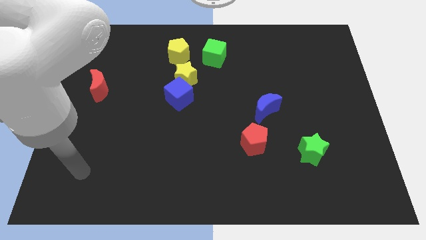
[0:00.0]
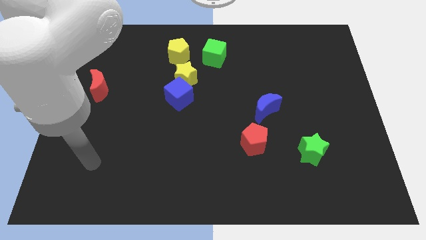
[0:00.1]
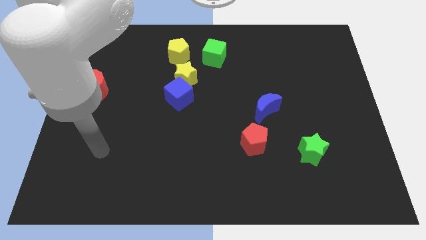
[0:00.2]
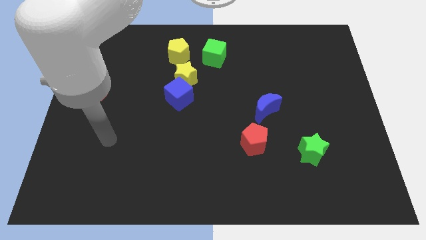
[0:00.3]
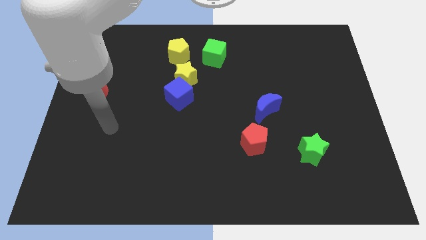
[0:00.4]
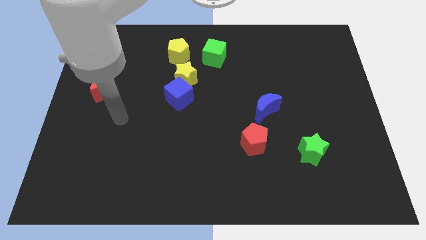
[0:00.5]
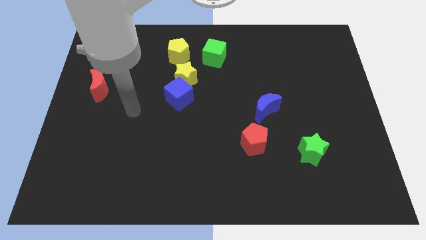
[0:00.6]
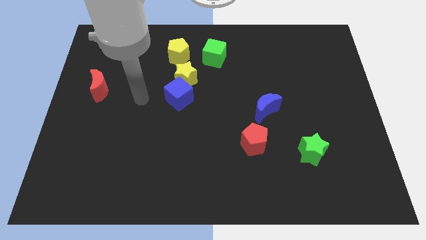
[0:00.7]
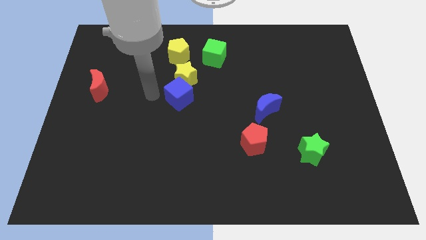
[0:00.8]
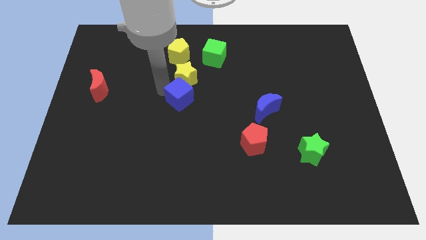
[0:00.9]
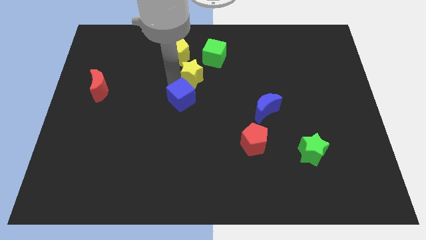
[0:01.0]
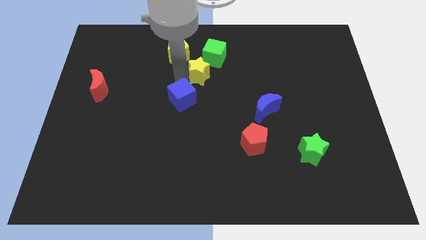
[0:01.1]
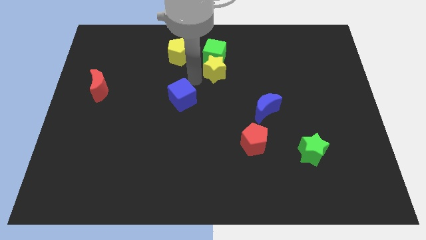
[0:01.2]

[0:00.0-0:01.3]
pull the blue cube apart from the yellow star

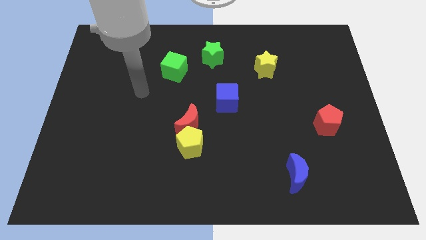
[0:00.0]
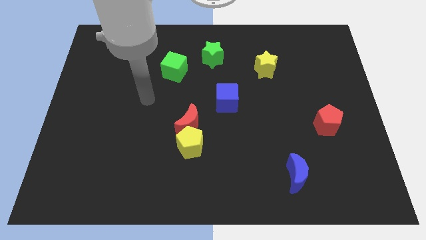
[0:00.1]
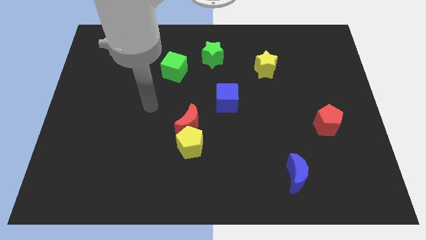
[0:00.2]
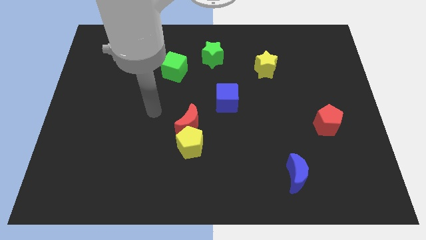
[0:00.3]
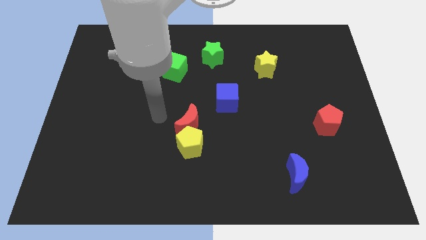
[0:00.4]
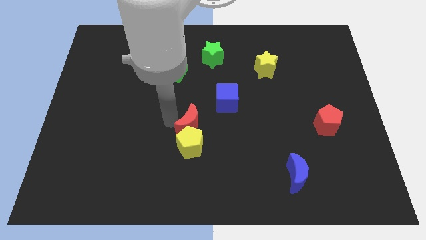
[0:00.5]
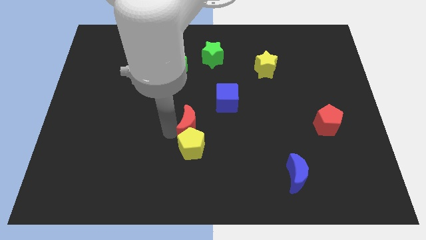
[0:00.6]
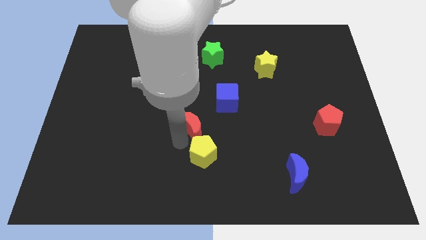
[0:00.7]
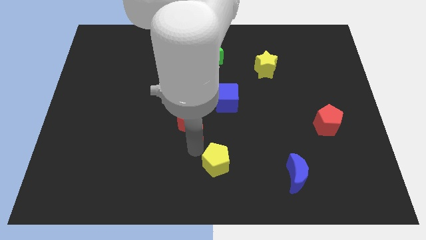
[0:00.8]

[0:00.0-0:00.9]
separate the red moon from the yellow pentagon

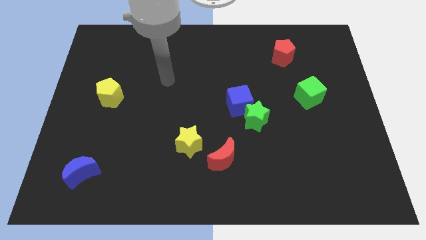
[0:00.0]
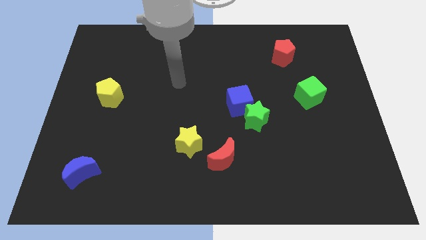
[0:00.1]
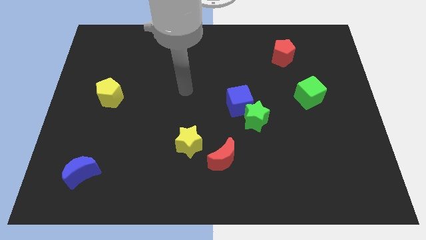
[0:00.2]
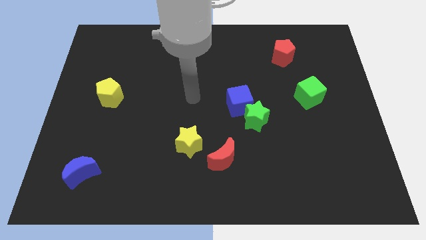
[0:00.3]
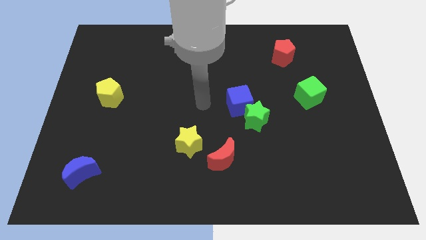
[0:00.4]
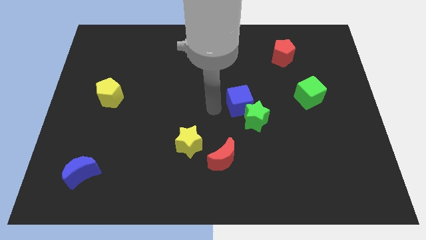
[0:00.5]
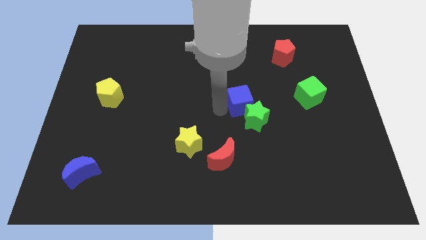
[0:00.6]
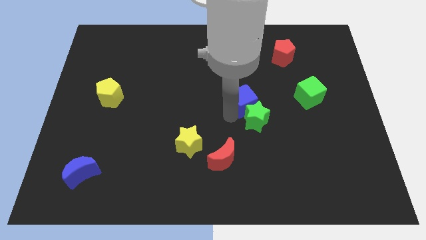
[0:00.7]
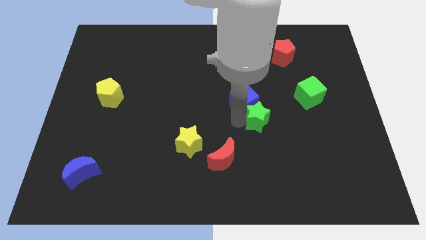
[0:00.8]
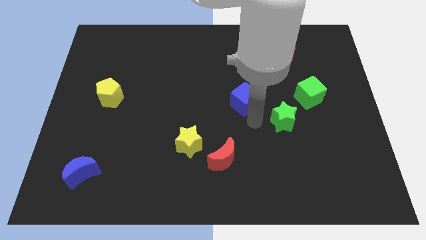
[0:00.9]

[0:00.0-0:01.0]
move the blue cube away from the green star

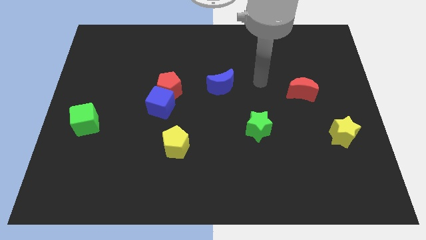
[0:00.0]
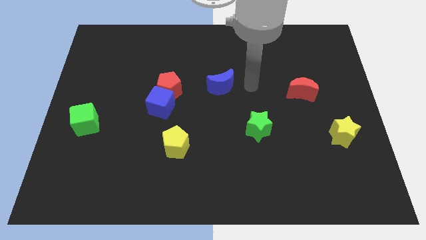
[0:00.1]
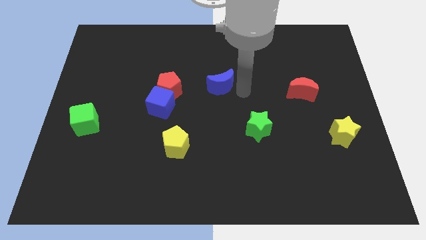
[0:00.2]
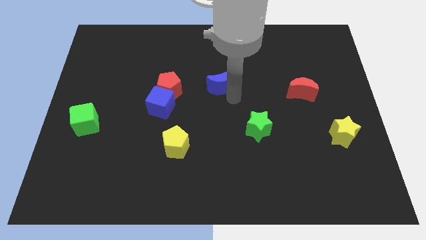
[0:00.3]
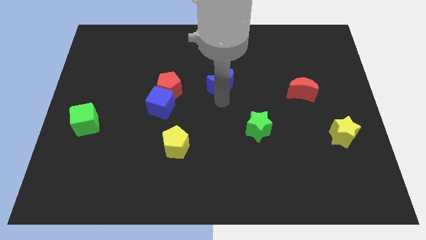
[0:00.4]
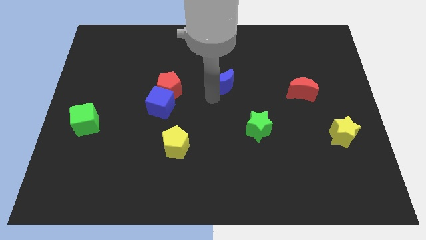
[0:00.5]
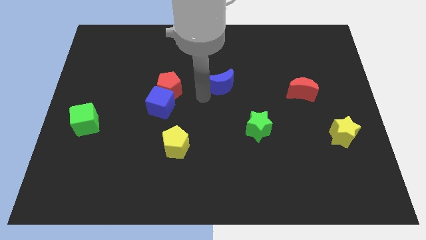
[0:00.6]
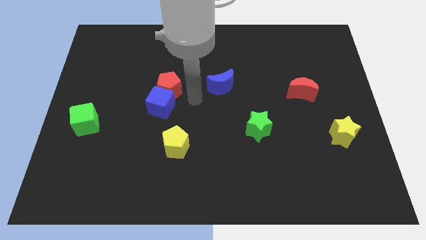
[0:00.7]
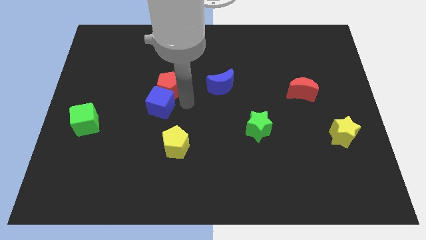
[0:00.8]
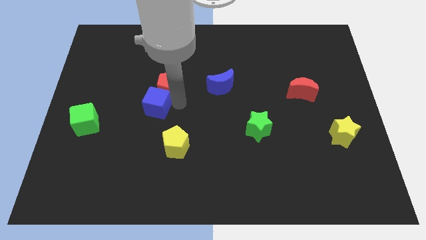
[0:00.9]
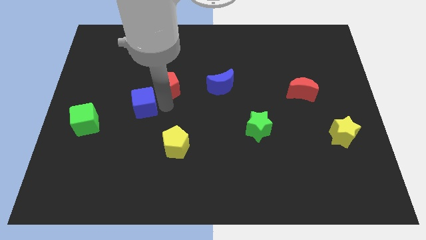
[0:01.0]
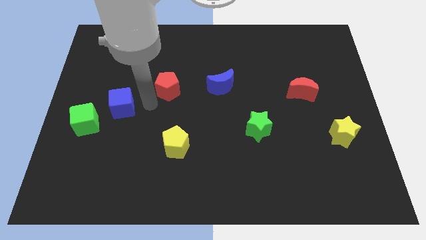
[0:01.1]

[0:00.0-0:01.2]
move the red pentagon away from the blue cube

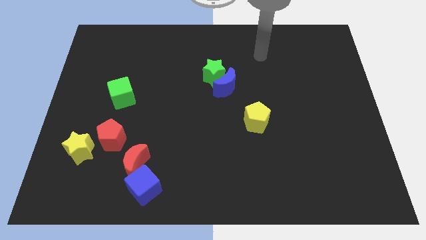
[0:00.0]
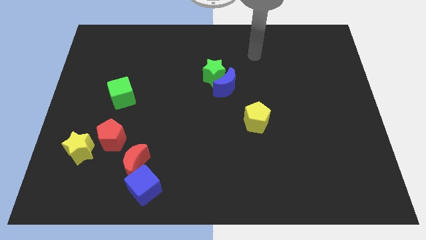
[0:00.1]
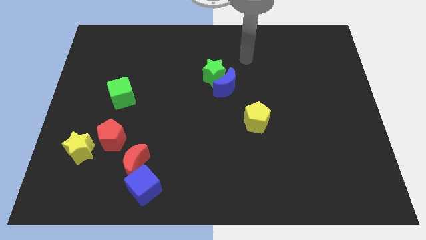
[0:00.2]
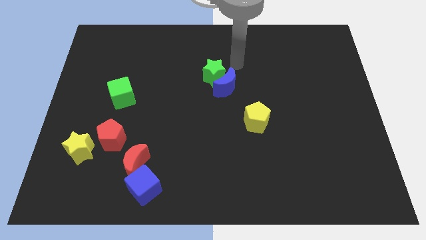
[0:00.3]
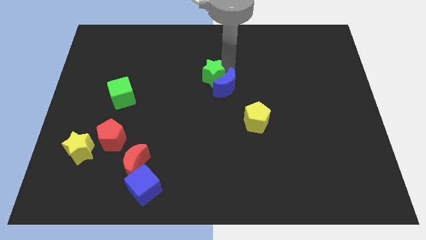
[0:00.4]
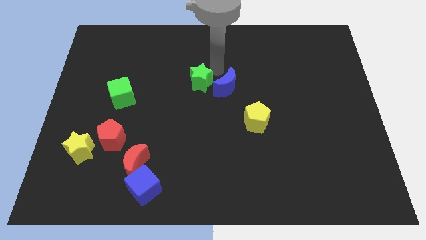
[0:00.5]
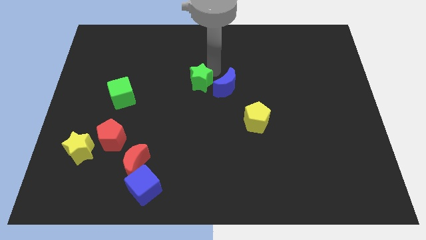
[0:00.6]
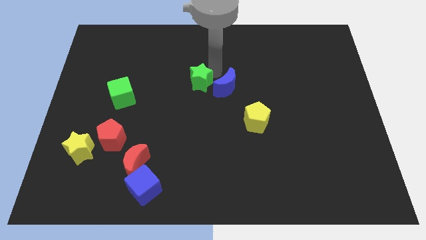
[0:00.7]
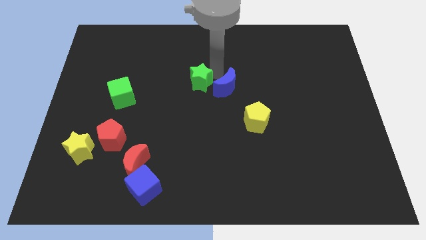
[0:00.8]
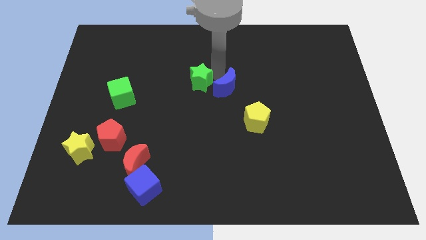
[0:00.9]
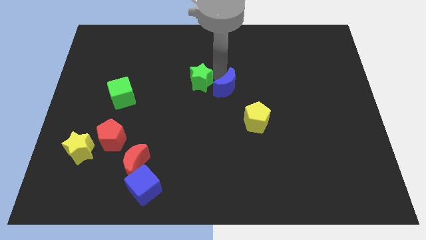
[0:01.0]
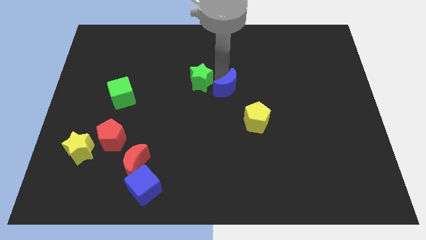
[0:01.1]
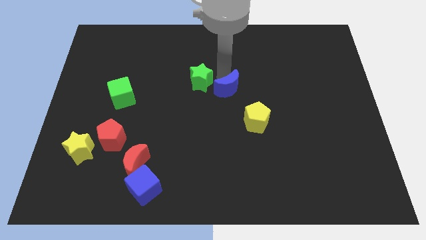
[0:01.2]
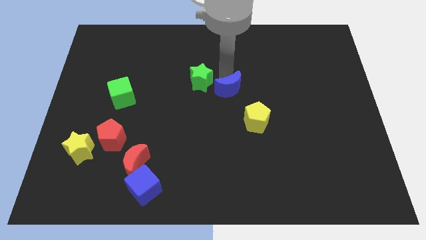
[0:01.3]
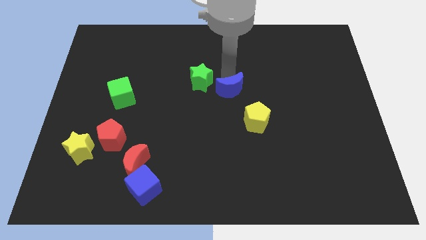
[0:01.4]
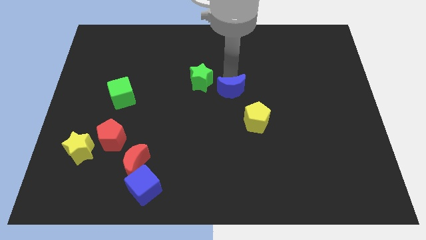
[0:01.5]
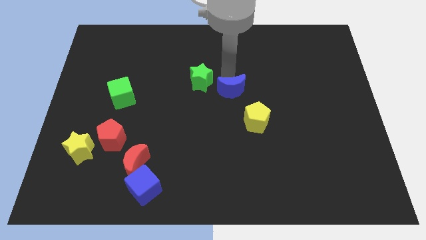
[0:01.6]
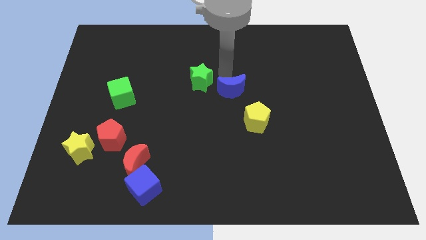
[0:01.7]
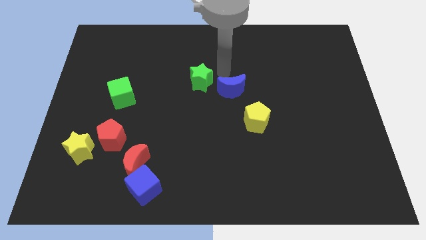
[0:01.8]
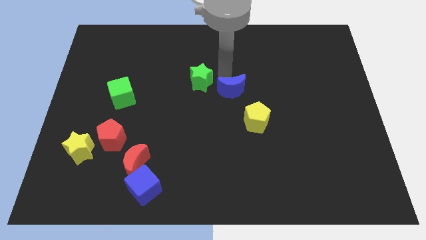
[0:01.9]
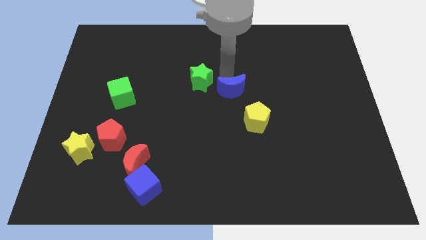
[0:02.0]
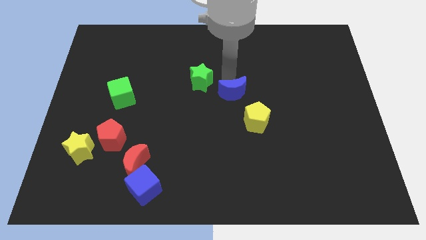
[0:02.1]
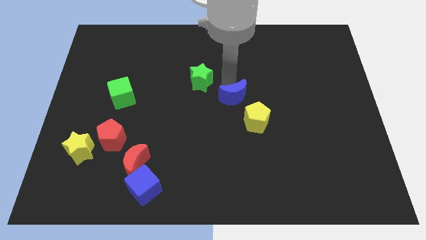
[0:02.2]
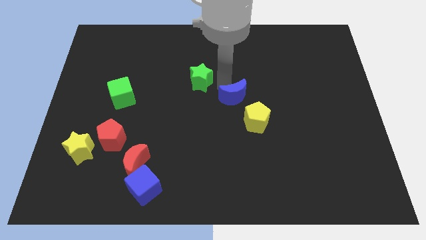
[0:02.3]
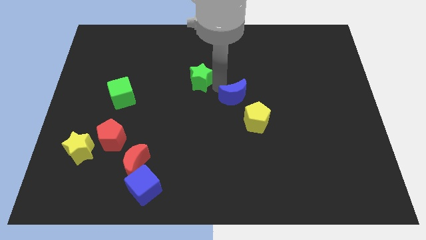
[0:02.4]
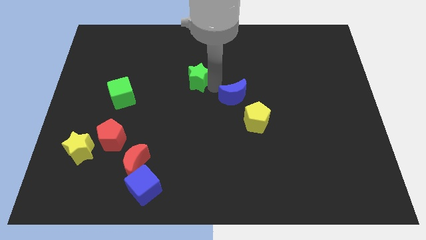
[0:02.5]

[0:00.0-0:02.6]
pull the blue moon apart from the green star

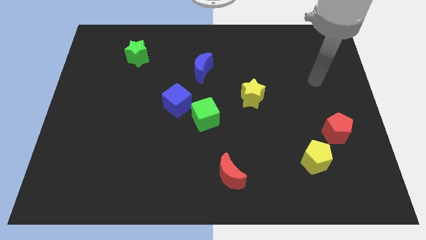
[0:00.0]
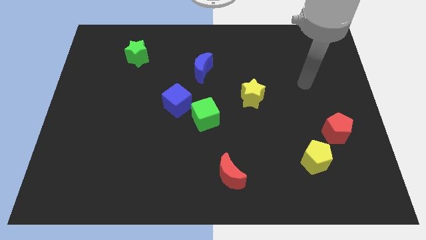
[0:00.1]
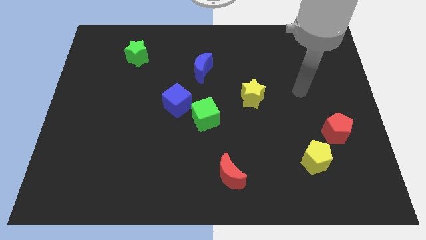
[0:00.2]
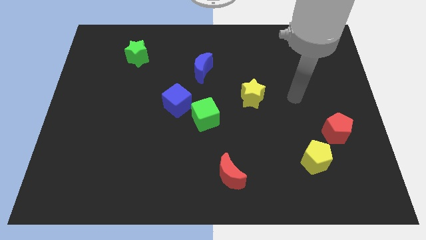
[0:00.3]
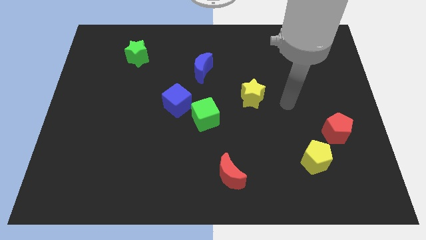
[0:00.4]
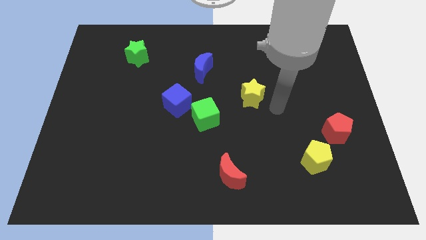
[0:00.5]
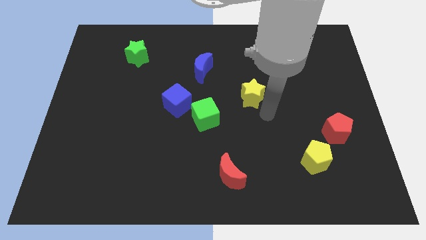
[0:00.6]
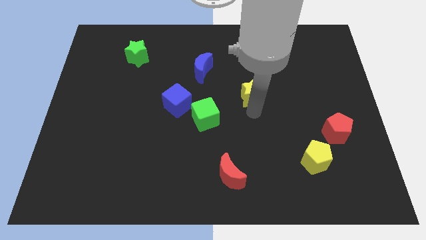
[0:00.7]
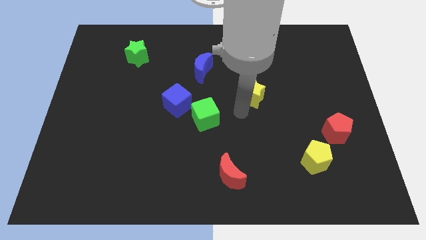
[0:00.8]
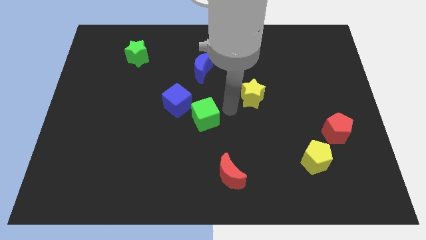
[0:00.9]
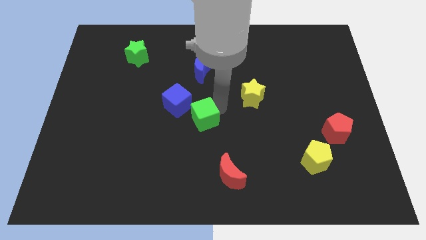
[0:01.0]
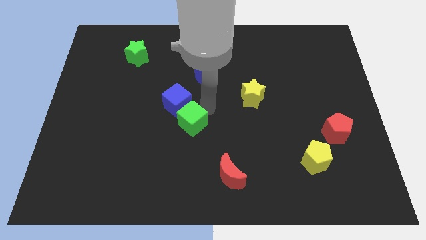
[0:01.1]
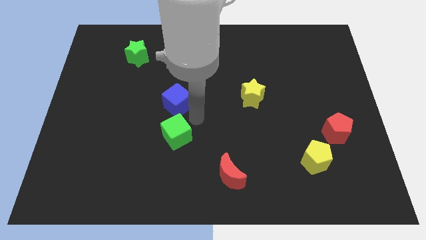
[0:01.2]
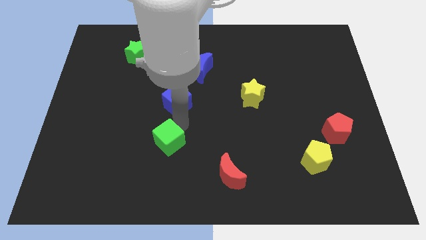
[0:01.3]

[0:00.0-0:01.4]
move the blue cube away from the green cube

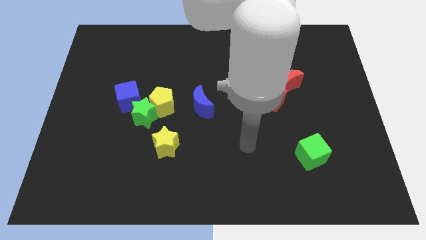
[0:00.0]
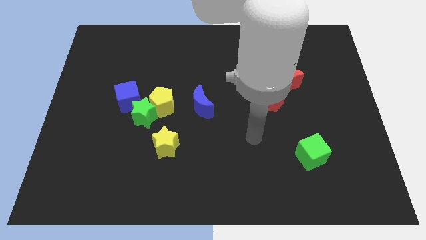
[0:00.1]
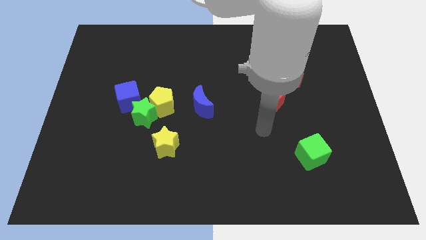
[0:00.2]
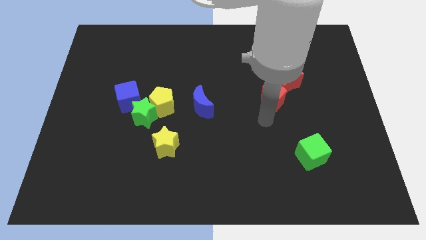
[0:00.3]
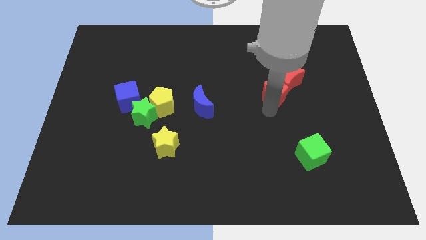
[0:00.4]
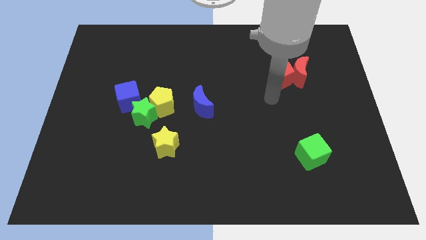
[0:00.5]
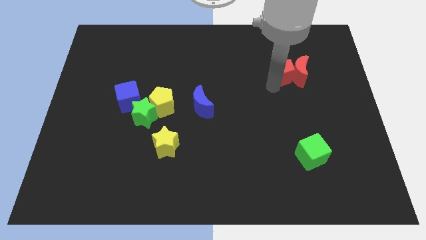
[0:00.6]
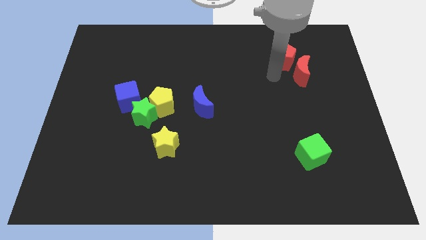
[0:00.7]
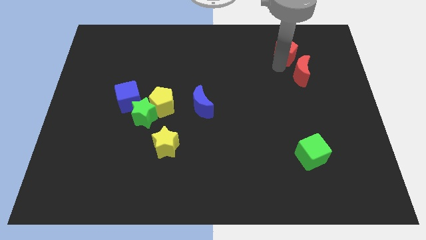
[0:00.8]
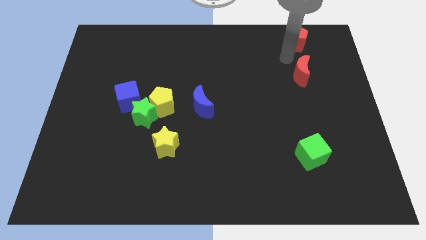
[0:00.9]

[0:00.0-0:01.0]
pull the red moon apart from the red pentagon
